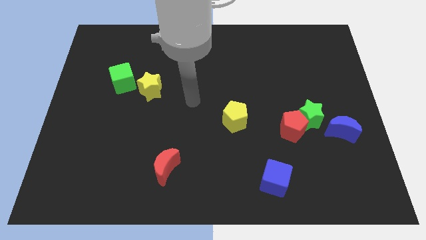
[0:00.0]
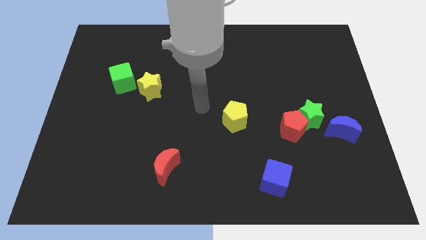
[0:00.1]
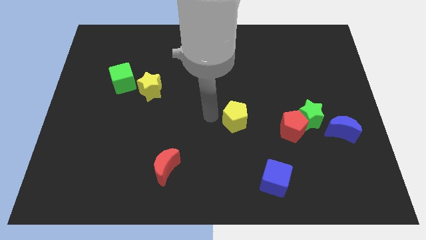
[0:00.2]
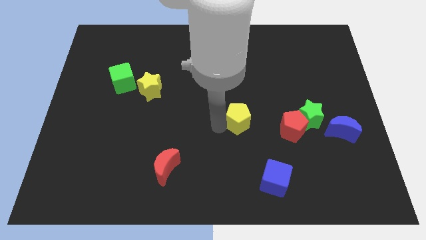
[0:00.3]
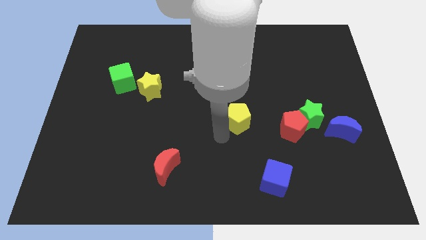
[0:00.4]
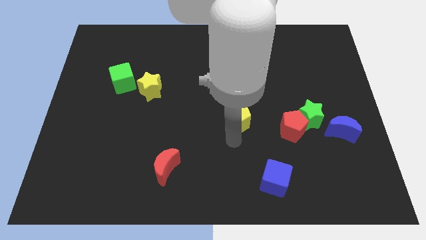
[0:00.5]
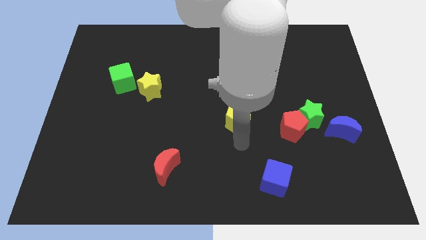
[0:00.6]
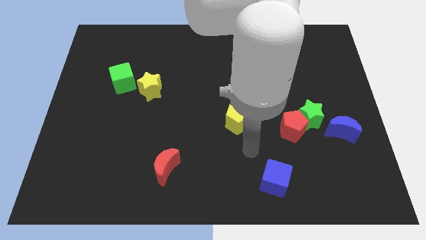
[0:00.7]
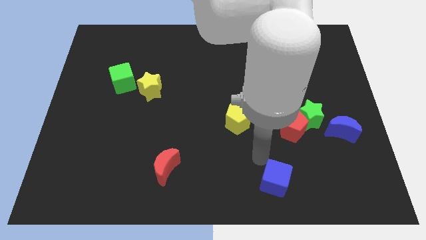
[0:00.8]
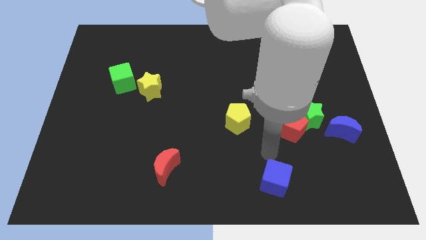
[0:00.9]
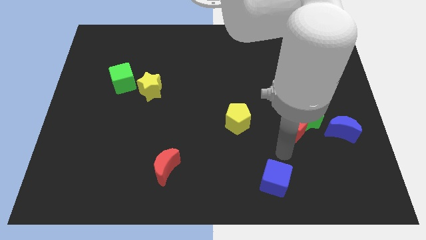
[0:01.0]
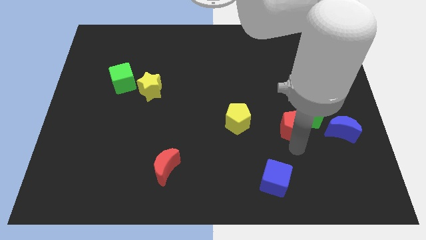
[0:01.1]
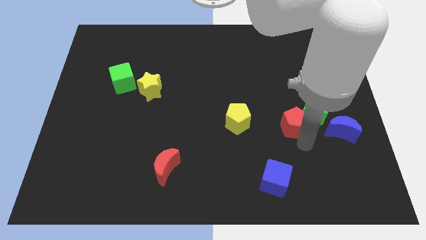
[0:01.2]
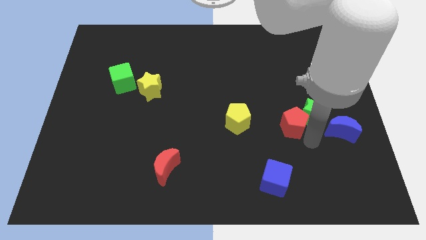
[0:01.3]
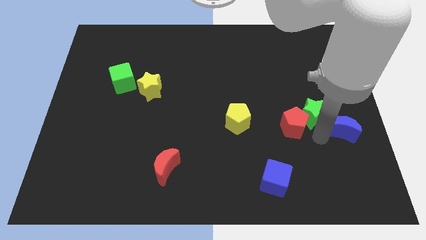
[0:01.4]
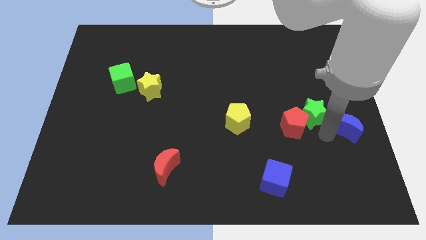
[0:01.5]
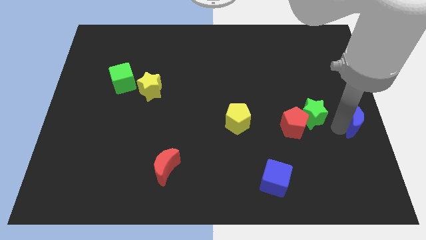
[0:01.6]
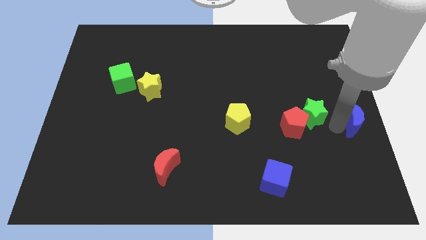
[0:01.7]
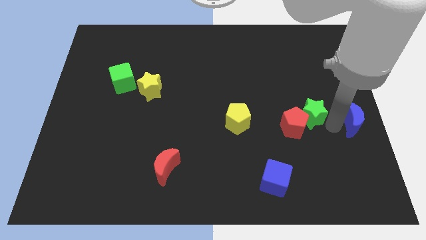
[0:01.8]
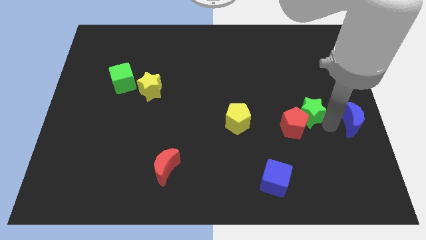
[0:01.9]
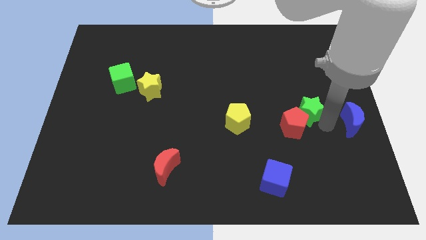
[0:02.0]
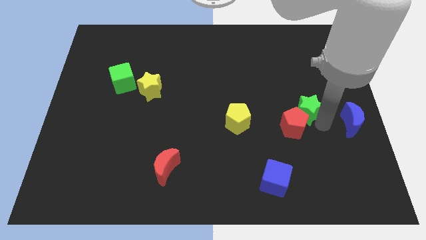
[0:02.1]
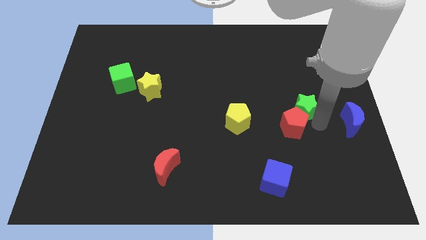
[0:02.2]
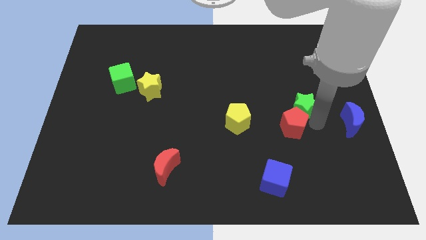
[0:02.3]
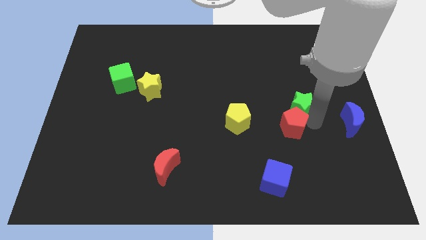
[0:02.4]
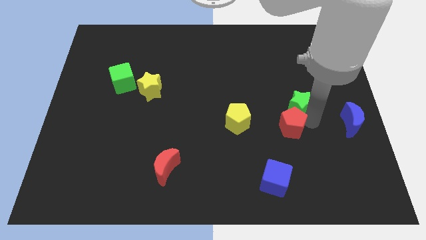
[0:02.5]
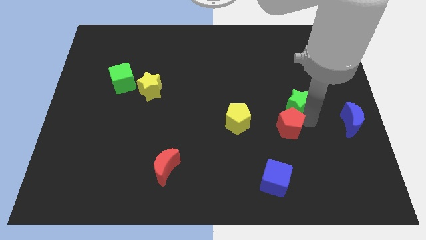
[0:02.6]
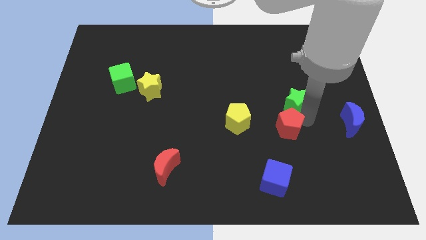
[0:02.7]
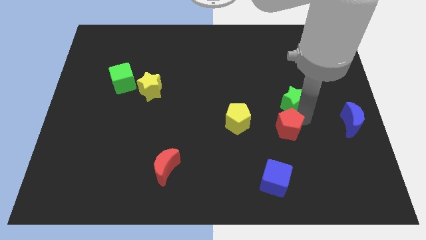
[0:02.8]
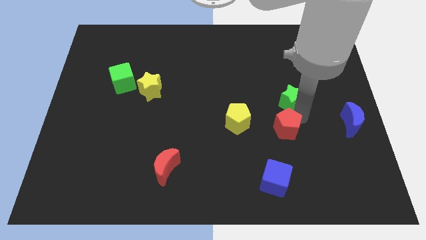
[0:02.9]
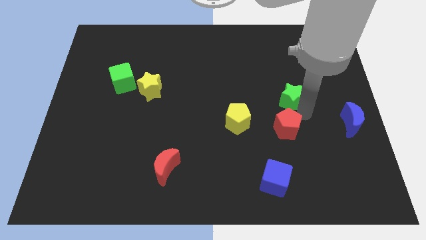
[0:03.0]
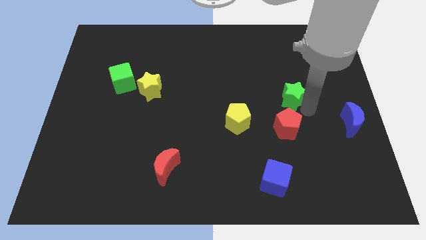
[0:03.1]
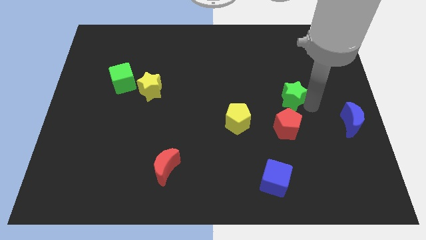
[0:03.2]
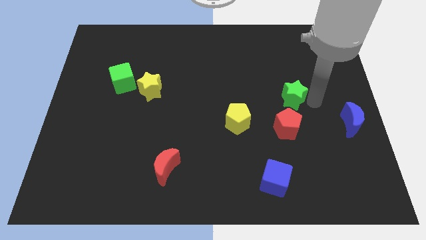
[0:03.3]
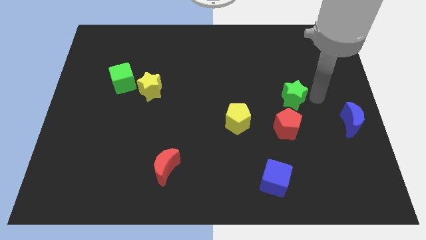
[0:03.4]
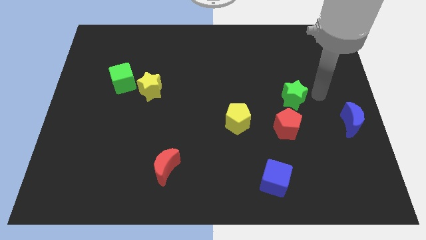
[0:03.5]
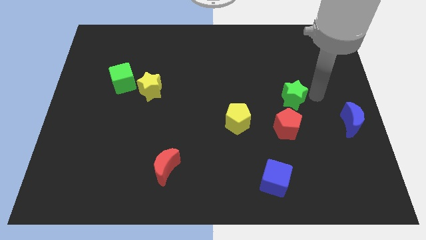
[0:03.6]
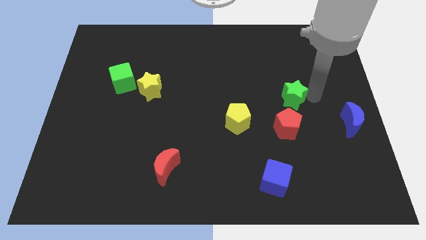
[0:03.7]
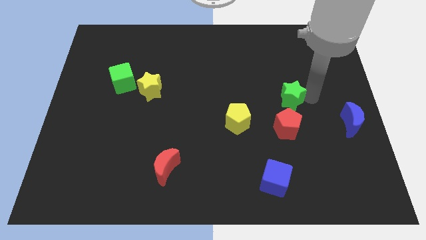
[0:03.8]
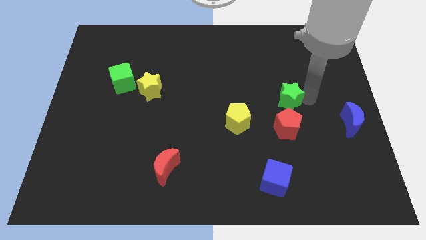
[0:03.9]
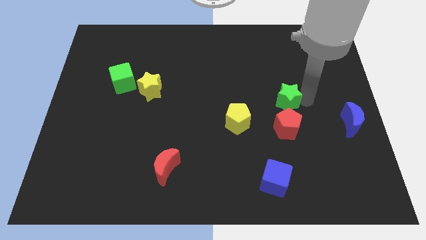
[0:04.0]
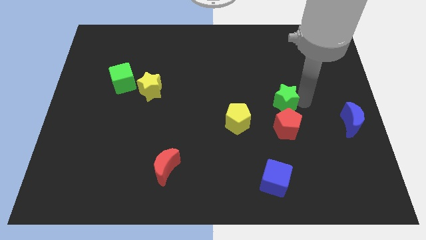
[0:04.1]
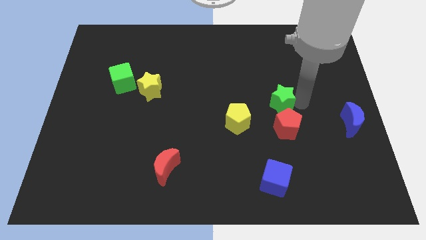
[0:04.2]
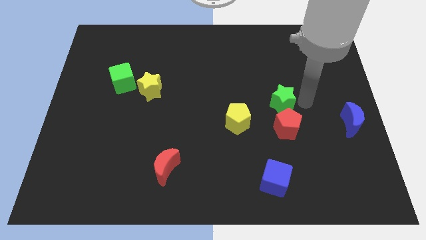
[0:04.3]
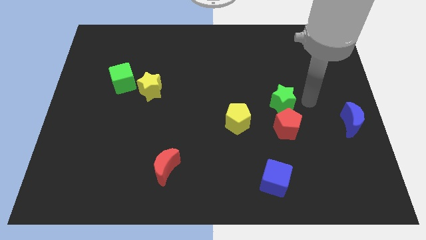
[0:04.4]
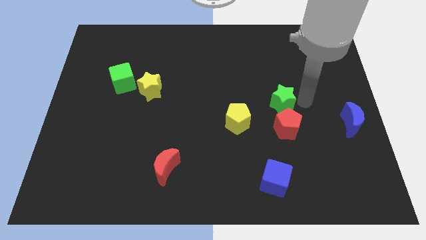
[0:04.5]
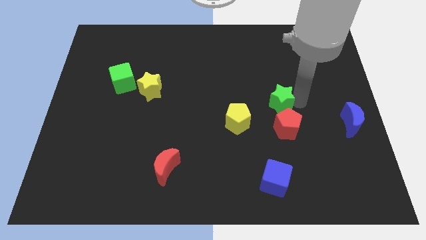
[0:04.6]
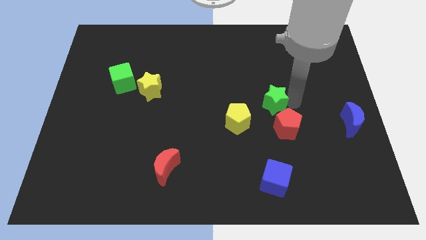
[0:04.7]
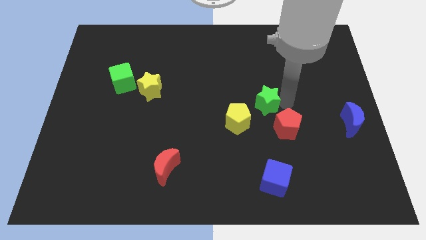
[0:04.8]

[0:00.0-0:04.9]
put the green star to the middle of the board

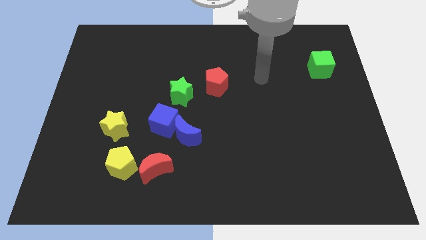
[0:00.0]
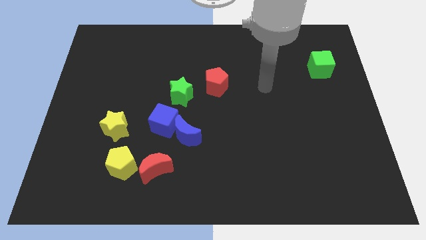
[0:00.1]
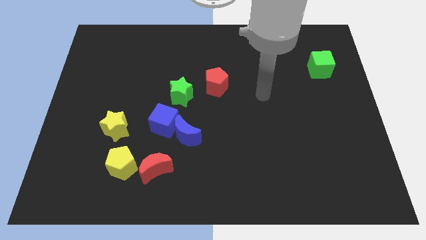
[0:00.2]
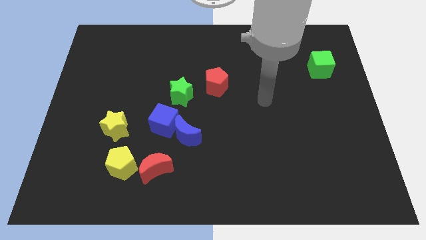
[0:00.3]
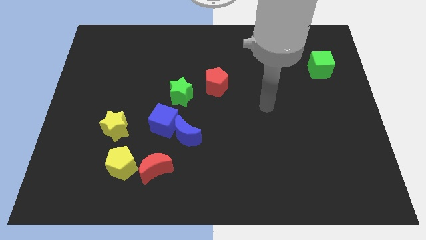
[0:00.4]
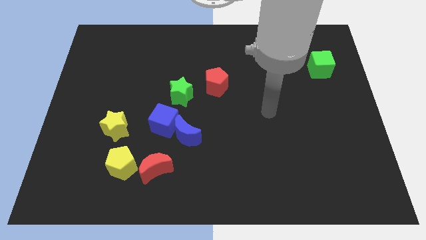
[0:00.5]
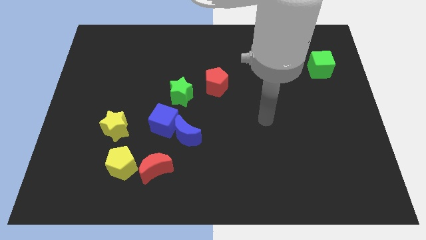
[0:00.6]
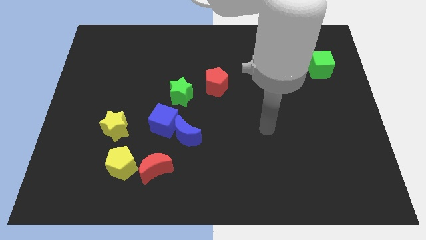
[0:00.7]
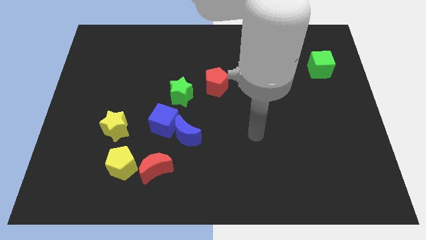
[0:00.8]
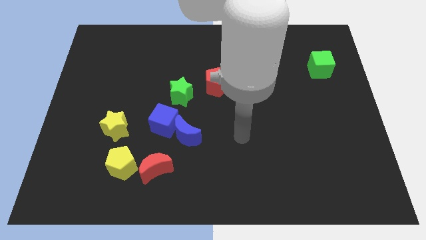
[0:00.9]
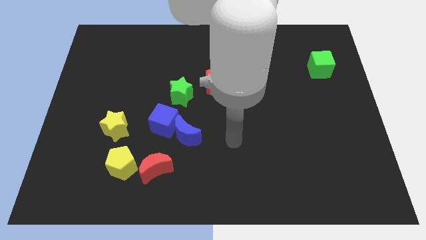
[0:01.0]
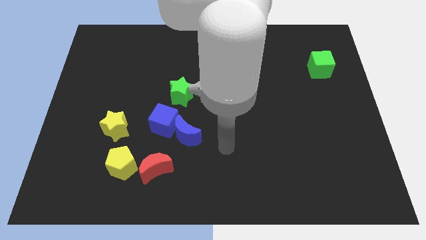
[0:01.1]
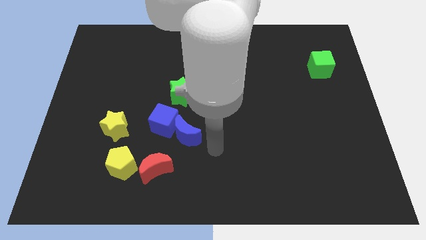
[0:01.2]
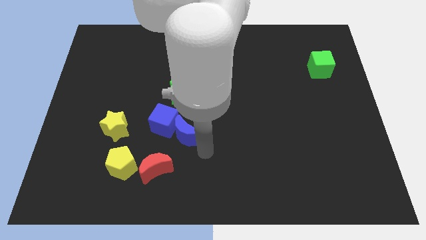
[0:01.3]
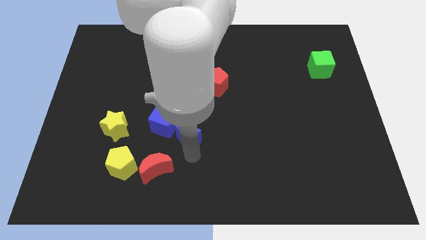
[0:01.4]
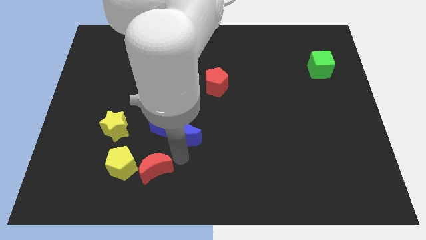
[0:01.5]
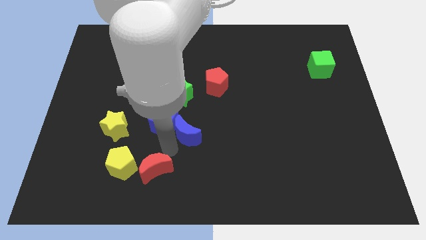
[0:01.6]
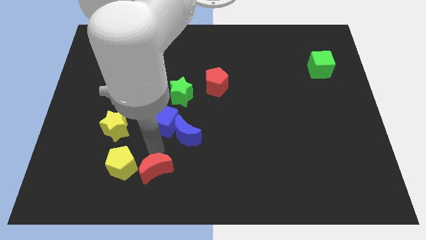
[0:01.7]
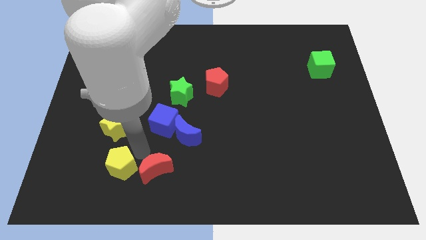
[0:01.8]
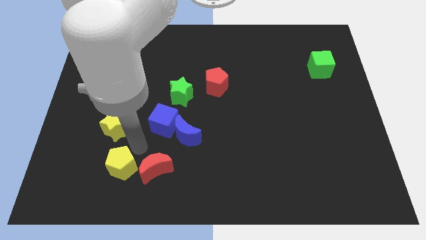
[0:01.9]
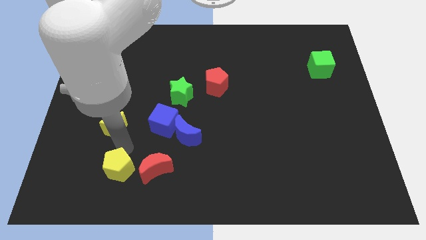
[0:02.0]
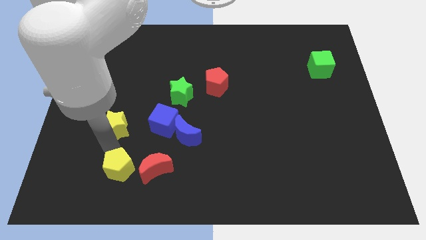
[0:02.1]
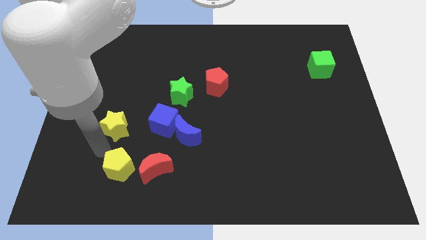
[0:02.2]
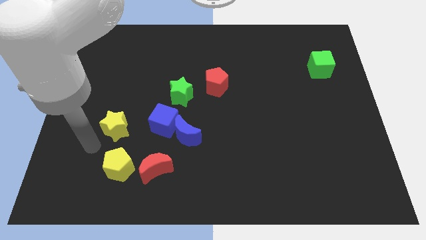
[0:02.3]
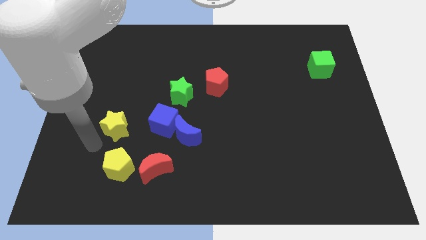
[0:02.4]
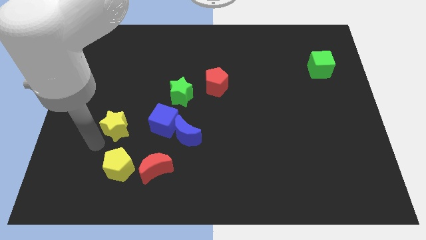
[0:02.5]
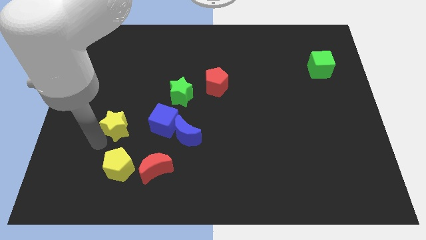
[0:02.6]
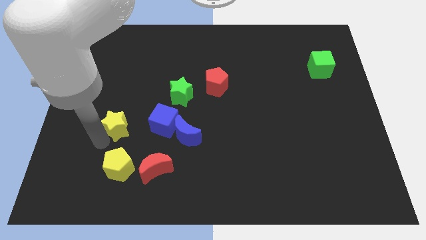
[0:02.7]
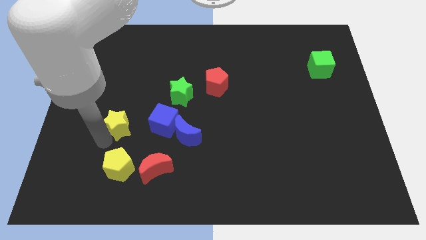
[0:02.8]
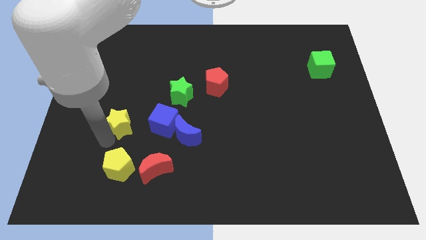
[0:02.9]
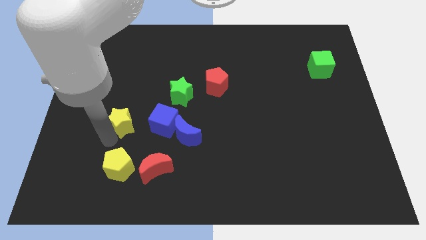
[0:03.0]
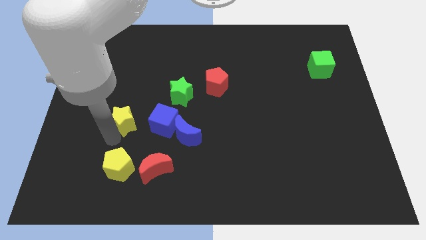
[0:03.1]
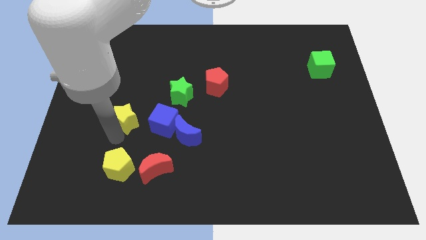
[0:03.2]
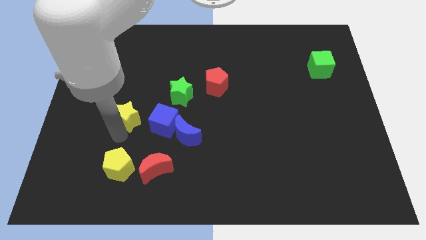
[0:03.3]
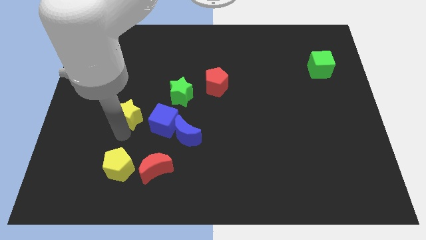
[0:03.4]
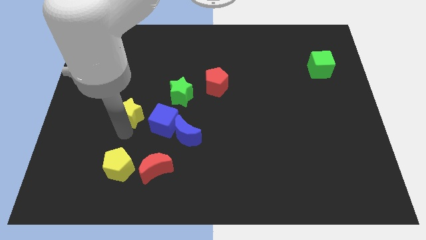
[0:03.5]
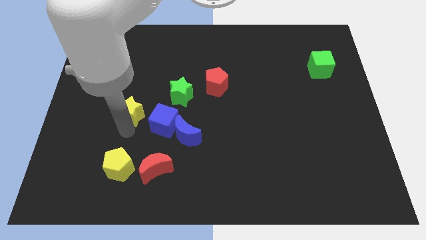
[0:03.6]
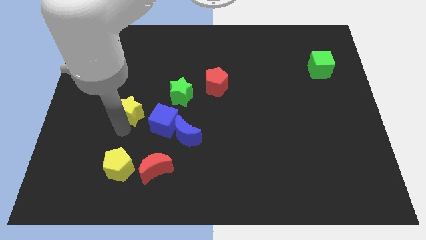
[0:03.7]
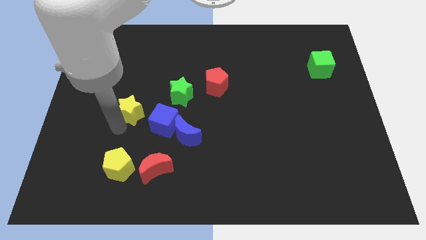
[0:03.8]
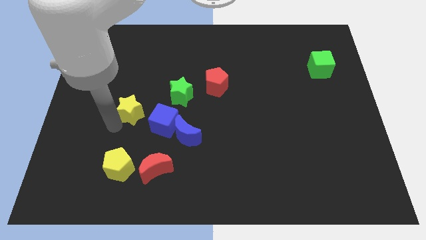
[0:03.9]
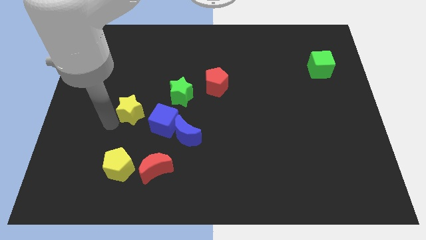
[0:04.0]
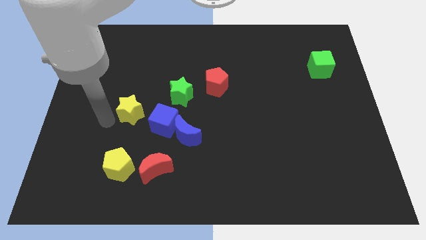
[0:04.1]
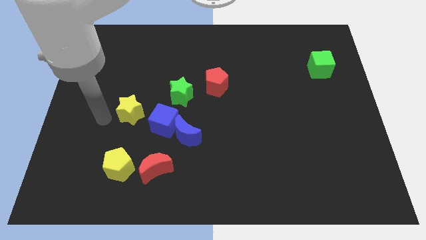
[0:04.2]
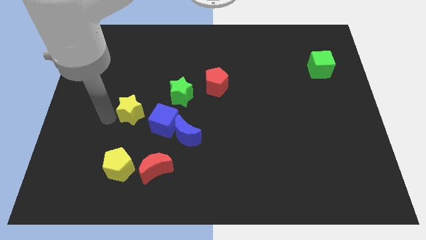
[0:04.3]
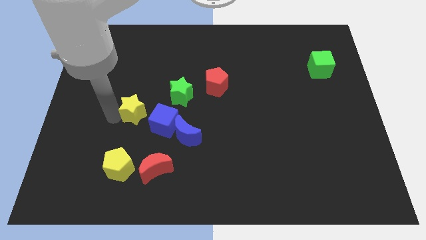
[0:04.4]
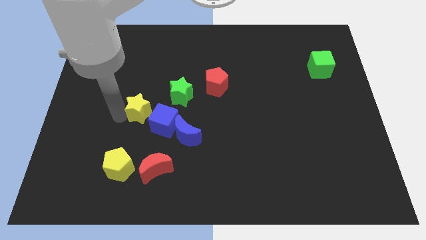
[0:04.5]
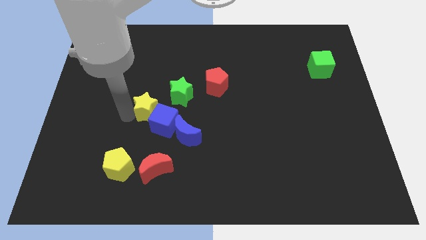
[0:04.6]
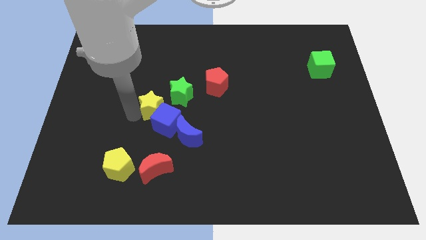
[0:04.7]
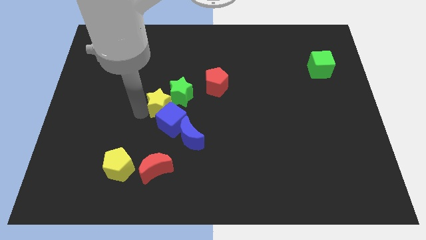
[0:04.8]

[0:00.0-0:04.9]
push the yellow star to the center of the board
